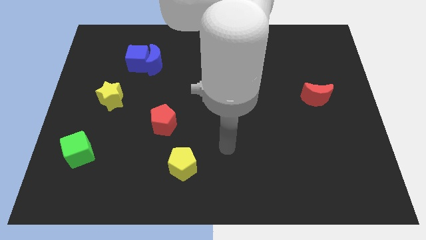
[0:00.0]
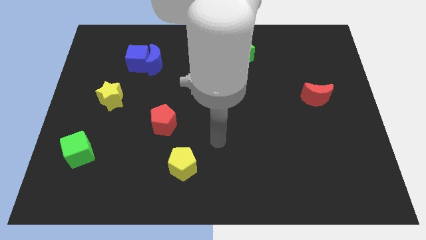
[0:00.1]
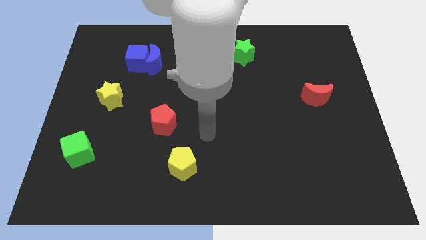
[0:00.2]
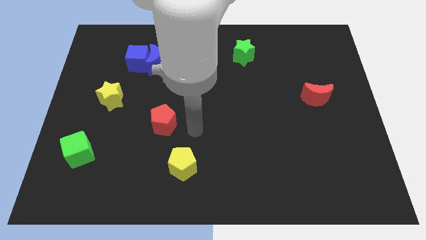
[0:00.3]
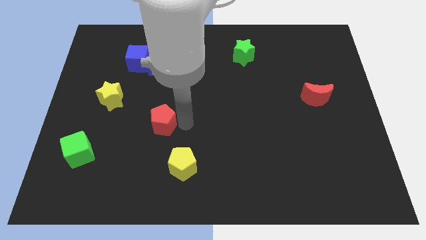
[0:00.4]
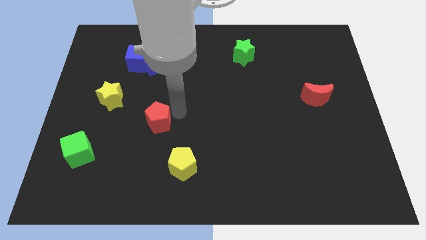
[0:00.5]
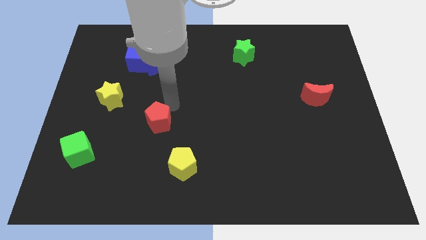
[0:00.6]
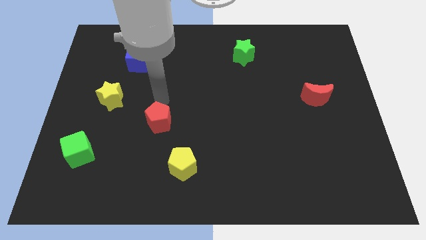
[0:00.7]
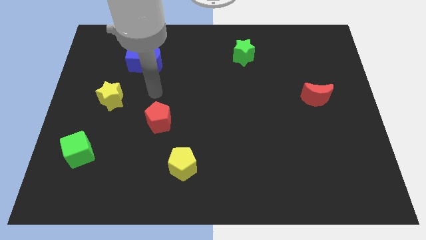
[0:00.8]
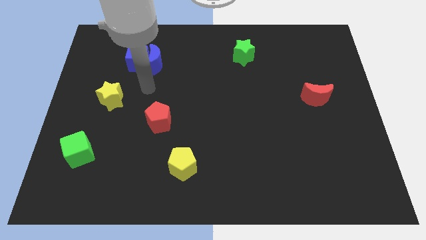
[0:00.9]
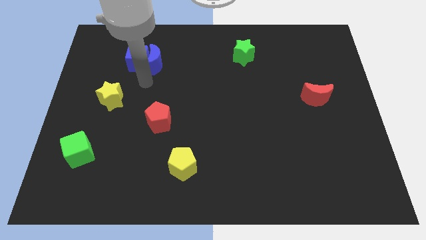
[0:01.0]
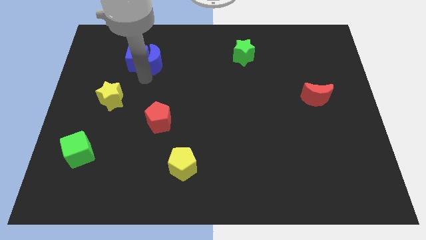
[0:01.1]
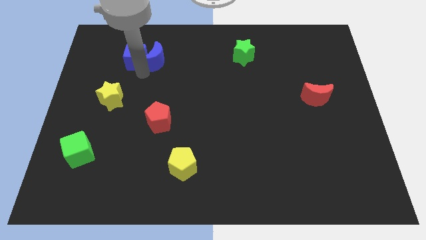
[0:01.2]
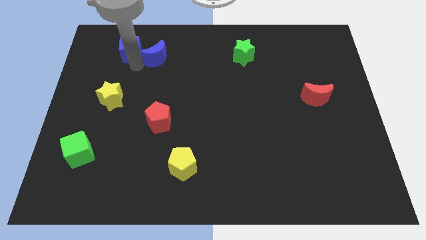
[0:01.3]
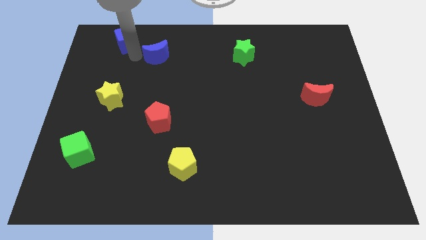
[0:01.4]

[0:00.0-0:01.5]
pull the blue moon apart from the blue cube

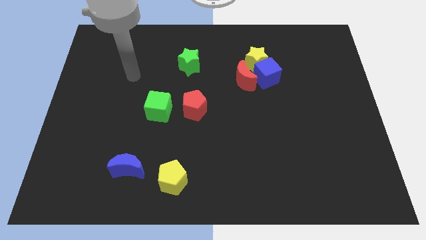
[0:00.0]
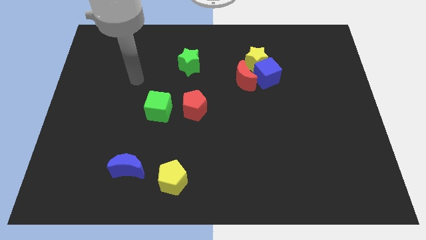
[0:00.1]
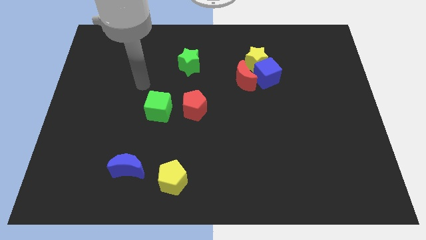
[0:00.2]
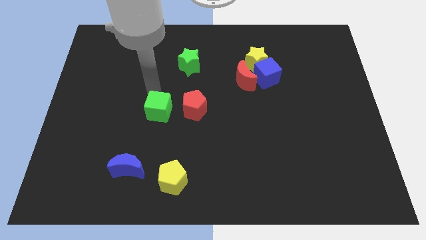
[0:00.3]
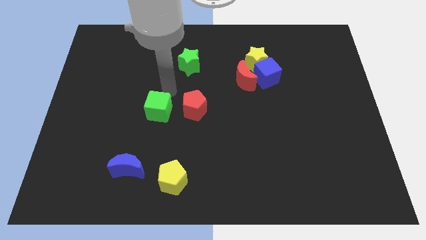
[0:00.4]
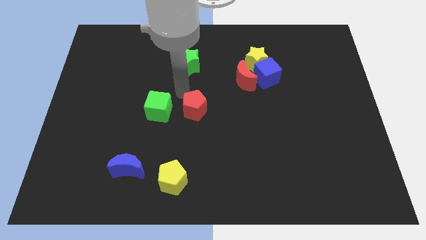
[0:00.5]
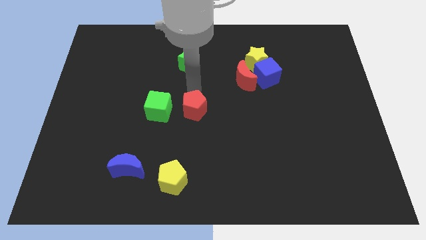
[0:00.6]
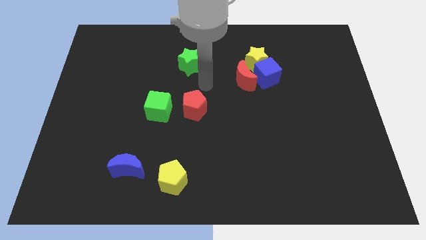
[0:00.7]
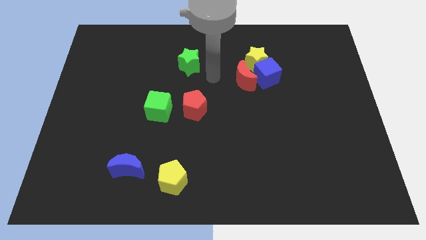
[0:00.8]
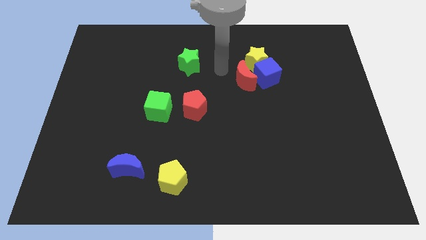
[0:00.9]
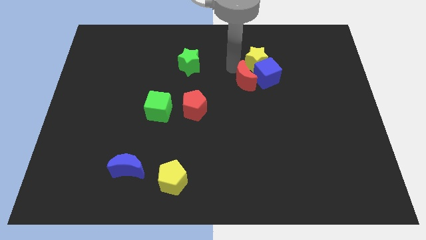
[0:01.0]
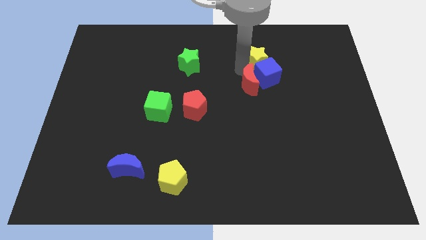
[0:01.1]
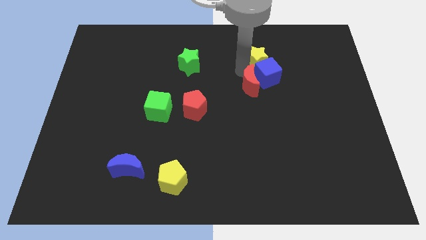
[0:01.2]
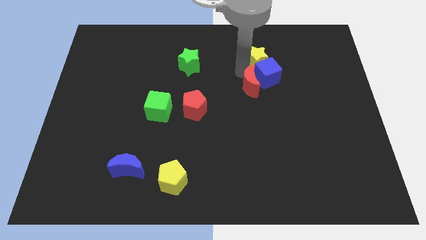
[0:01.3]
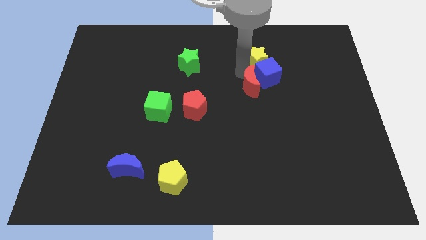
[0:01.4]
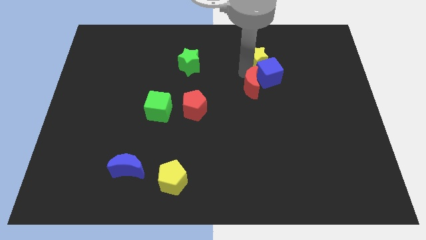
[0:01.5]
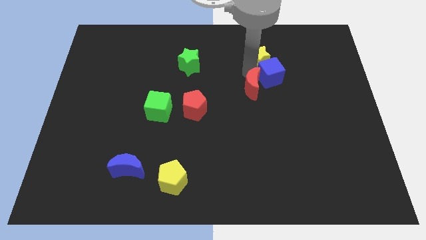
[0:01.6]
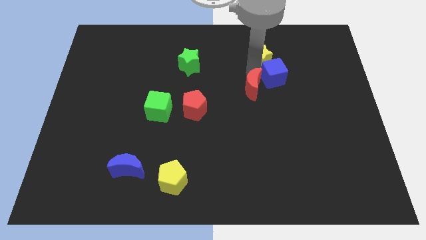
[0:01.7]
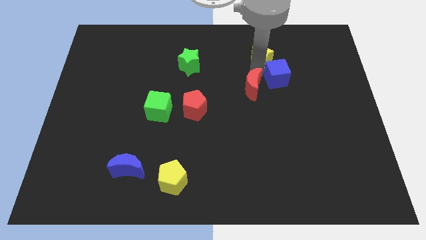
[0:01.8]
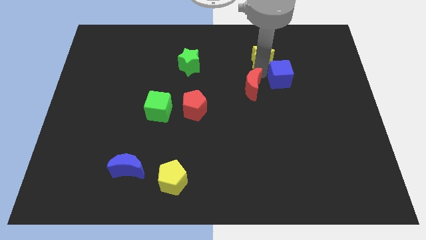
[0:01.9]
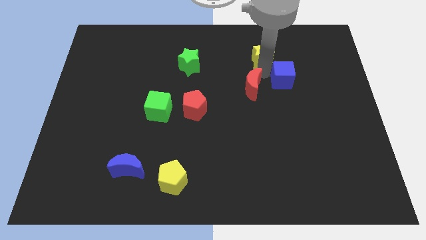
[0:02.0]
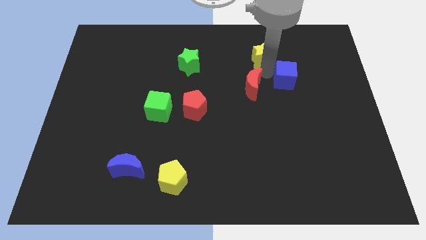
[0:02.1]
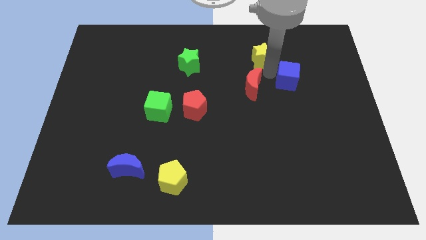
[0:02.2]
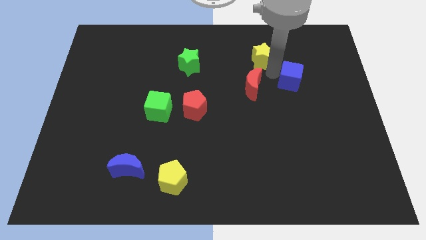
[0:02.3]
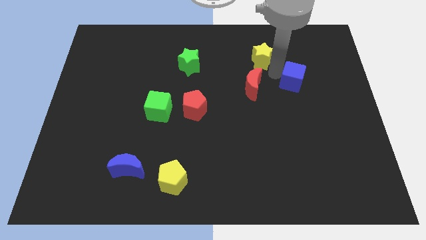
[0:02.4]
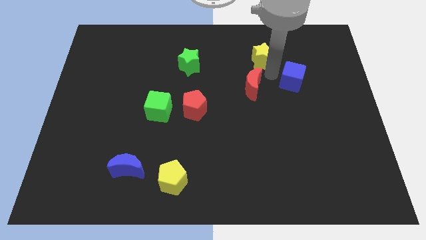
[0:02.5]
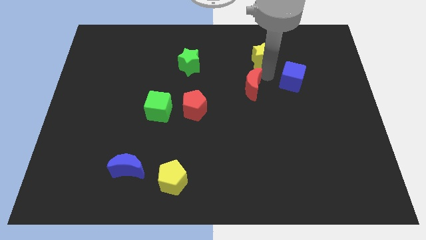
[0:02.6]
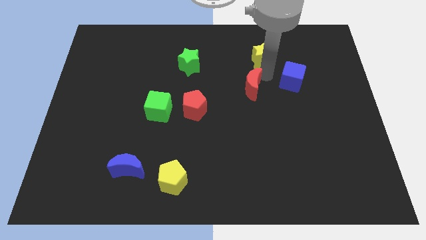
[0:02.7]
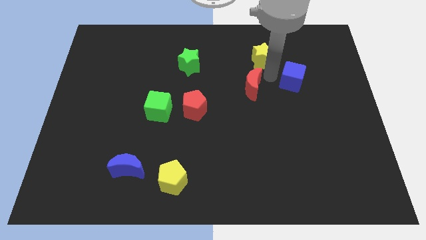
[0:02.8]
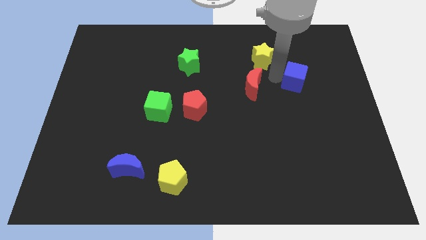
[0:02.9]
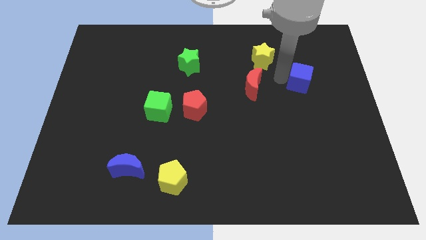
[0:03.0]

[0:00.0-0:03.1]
pull the blue cube apart from the yellow star and red moon

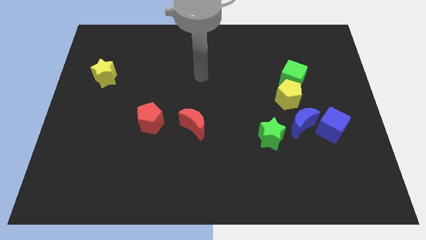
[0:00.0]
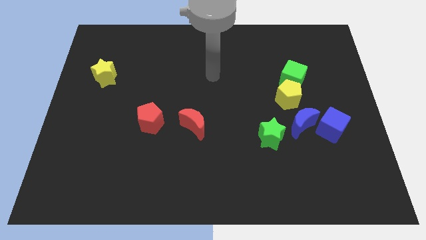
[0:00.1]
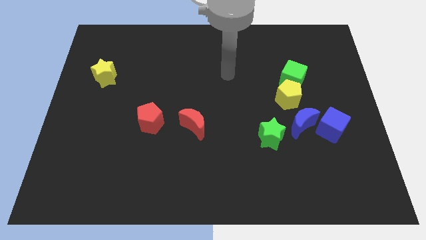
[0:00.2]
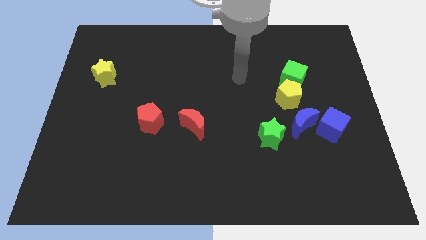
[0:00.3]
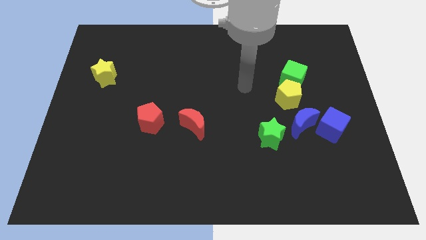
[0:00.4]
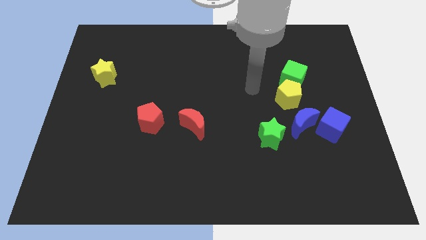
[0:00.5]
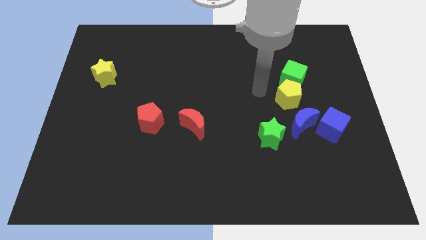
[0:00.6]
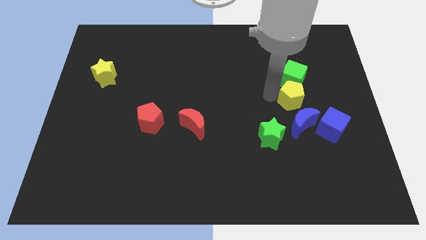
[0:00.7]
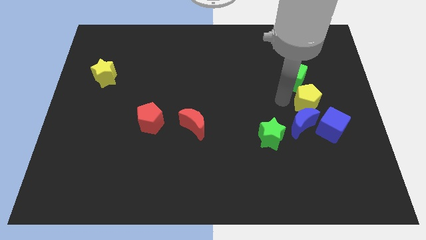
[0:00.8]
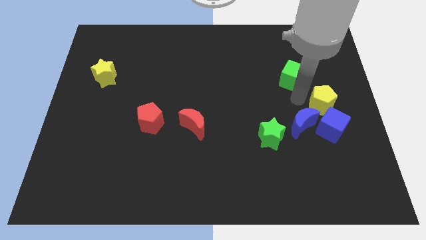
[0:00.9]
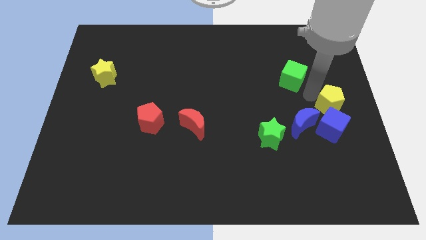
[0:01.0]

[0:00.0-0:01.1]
move the green cube away from the yellow pentagon

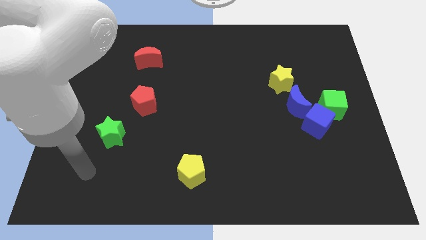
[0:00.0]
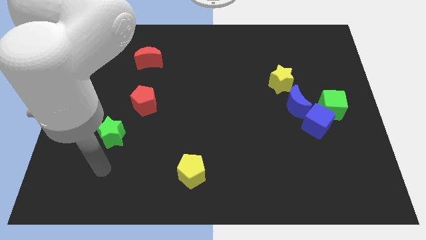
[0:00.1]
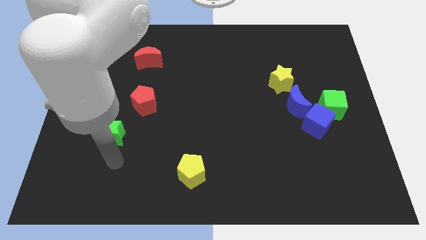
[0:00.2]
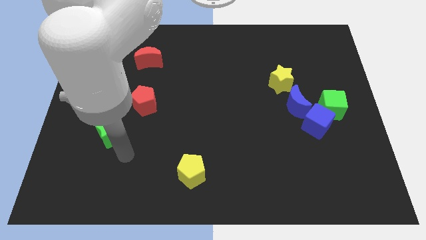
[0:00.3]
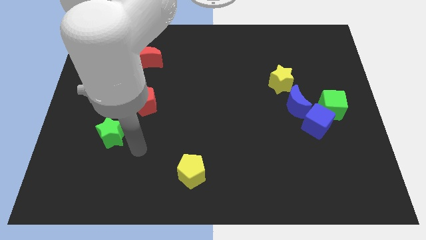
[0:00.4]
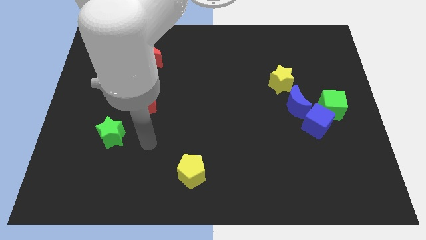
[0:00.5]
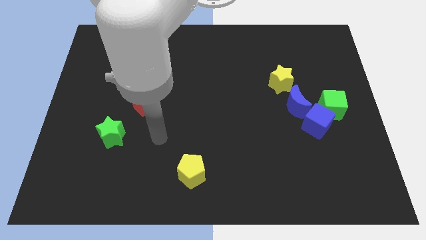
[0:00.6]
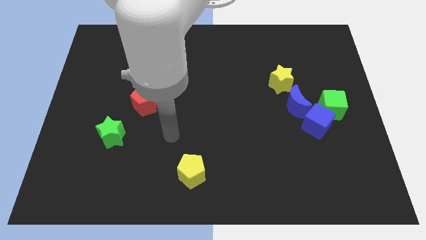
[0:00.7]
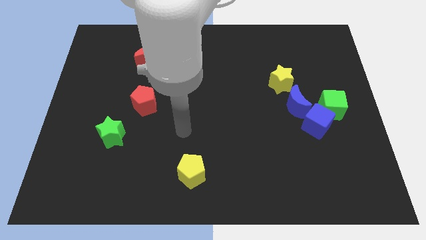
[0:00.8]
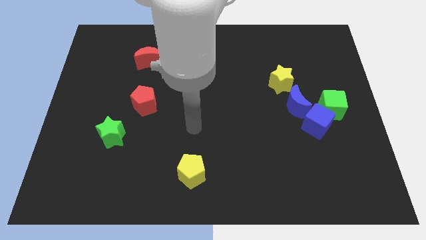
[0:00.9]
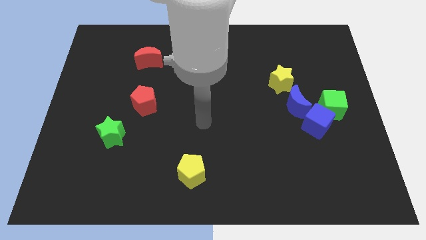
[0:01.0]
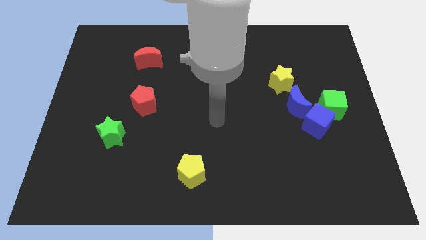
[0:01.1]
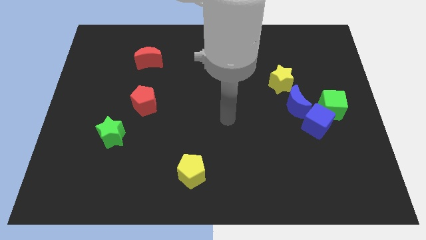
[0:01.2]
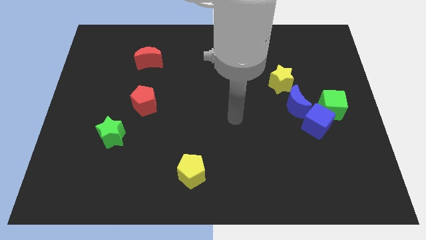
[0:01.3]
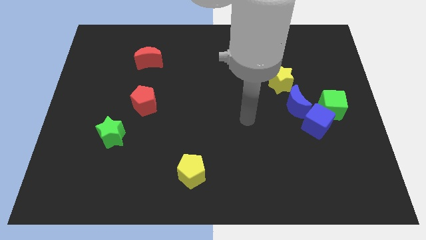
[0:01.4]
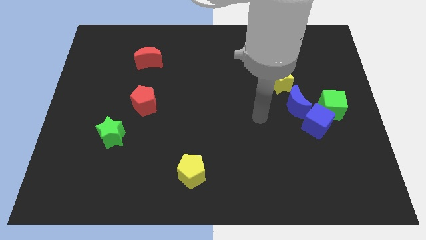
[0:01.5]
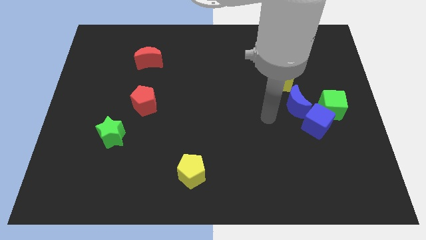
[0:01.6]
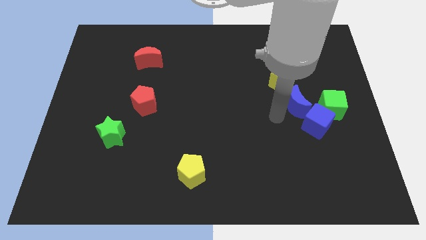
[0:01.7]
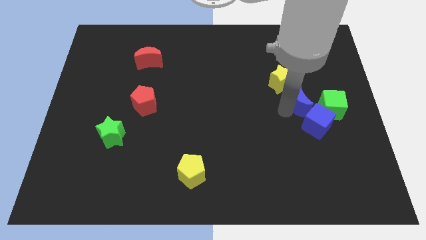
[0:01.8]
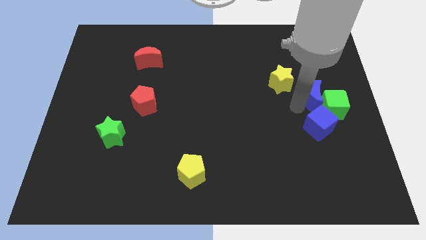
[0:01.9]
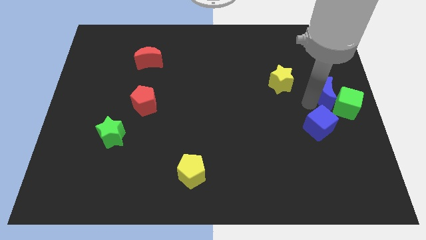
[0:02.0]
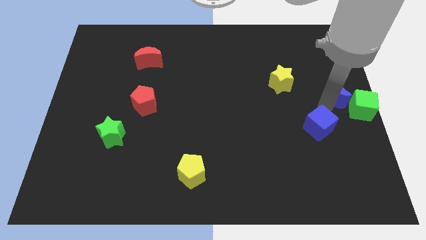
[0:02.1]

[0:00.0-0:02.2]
move the blue cube away from the green cube and blue moon

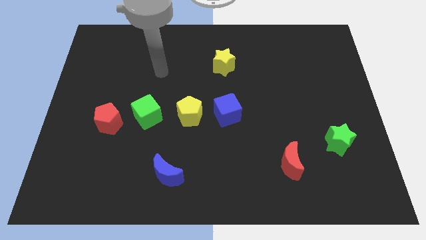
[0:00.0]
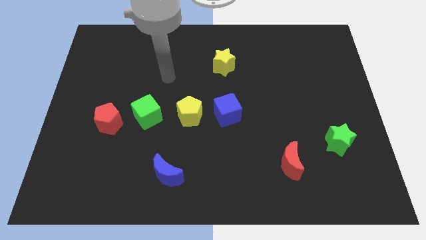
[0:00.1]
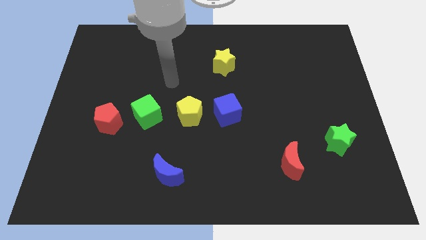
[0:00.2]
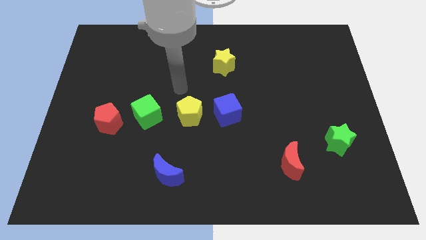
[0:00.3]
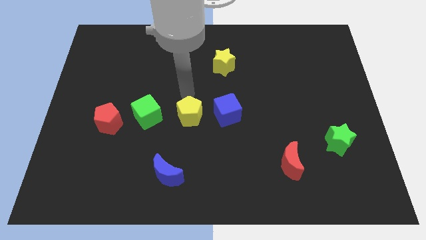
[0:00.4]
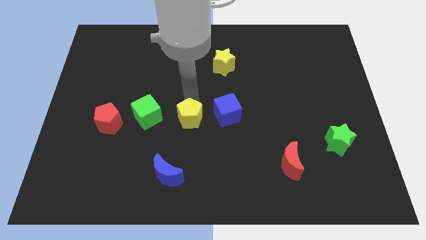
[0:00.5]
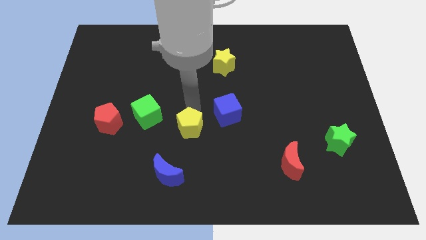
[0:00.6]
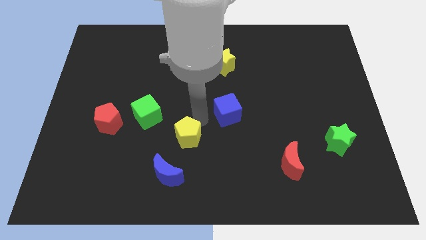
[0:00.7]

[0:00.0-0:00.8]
separate the blue cube from the yellow pentagon

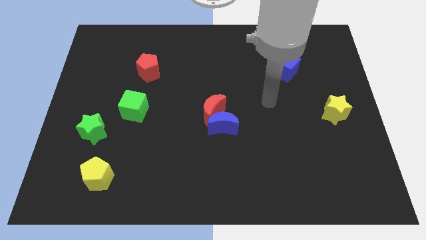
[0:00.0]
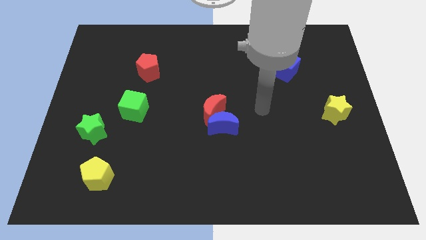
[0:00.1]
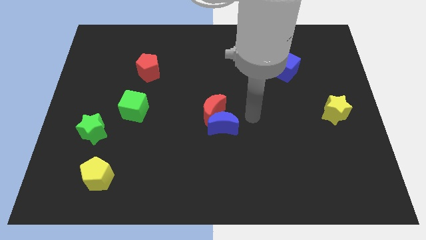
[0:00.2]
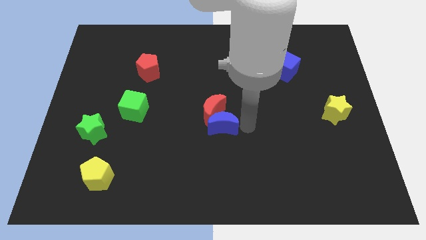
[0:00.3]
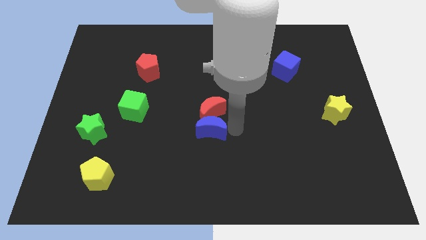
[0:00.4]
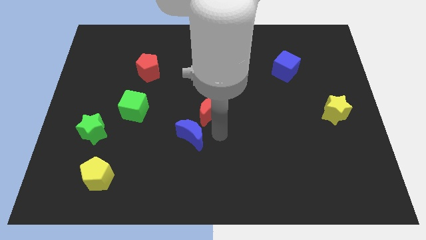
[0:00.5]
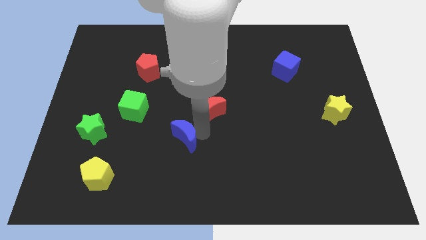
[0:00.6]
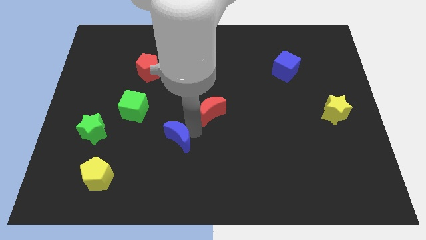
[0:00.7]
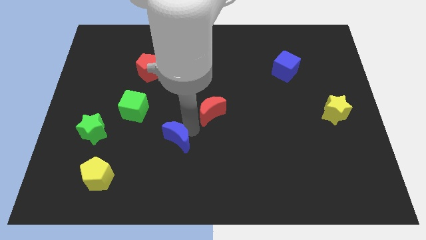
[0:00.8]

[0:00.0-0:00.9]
move the red moon away from the blue moon
